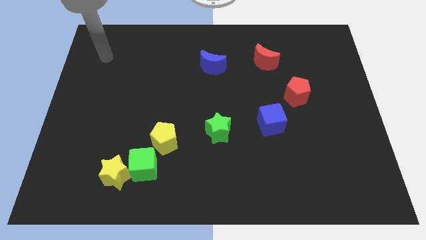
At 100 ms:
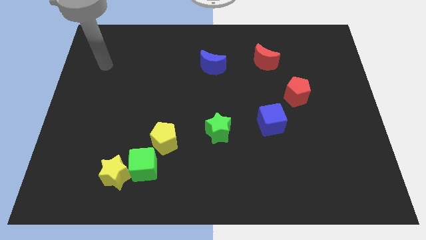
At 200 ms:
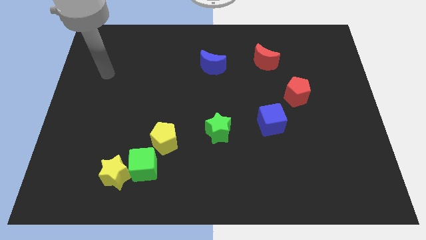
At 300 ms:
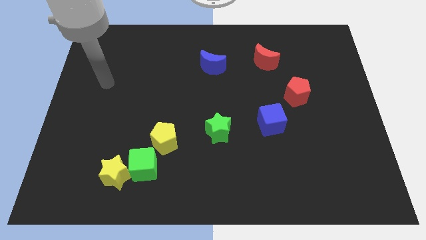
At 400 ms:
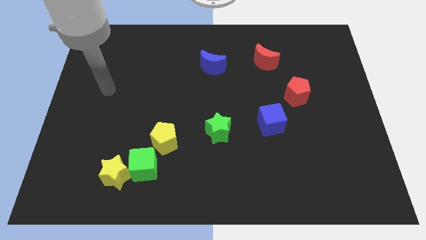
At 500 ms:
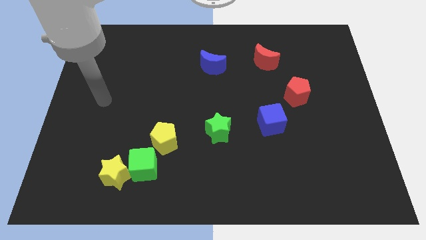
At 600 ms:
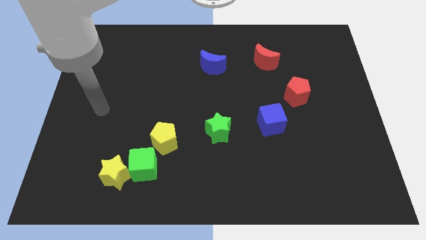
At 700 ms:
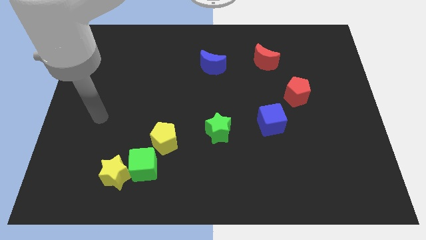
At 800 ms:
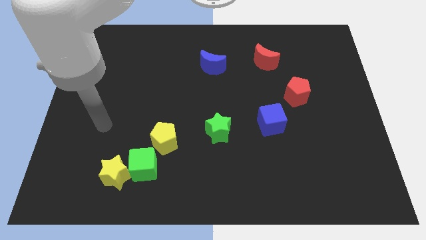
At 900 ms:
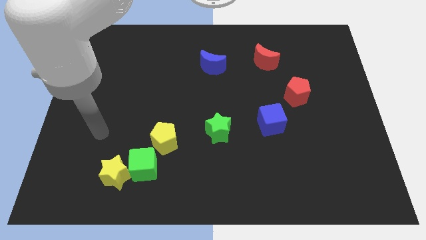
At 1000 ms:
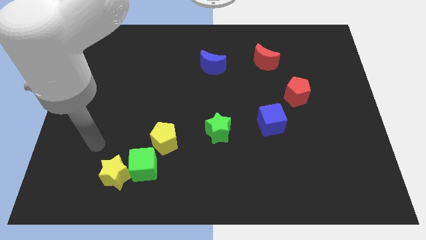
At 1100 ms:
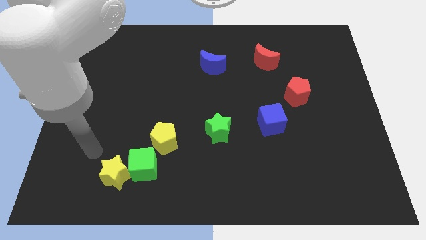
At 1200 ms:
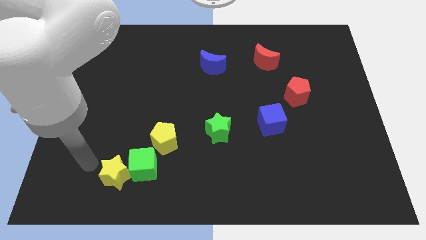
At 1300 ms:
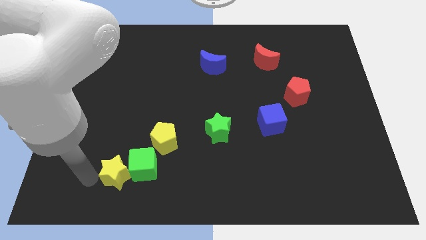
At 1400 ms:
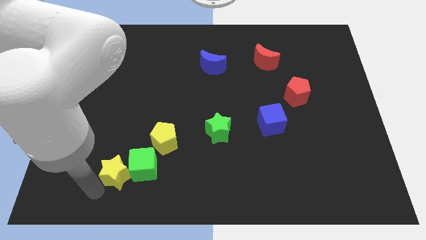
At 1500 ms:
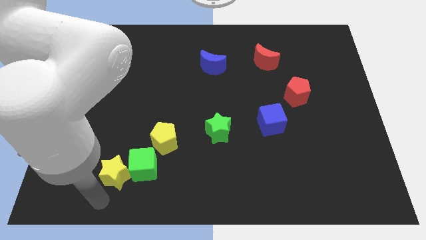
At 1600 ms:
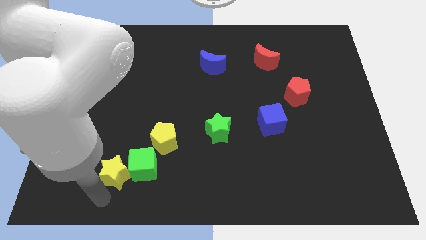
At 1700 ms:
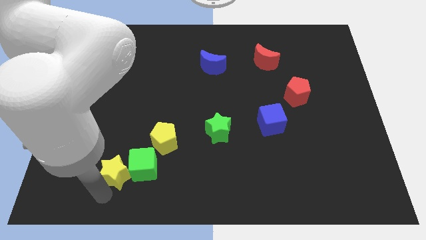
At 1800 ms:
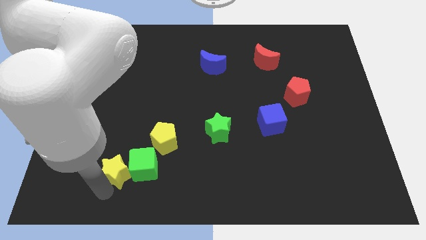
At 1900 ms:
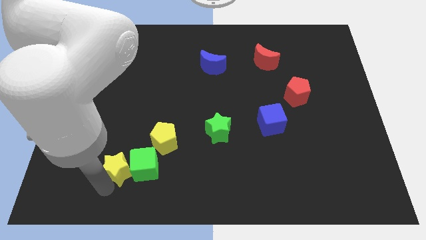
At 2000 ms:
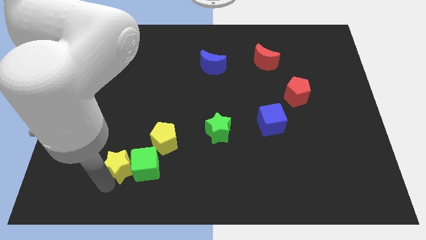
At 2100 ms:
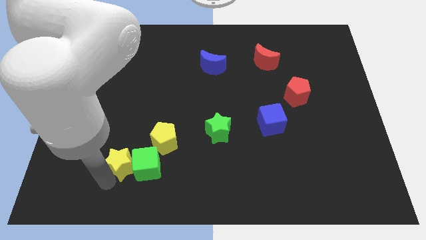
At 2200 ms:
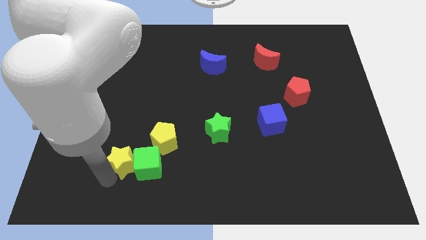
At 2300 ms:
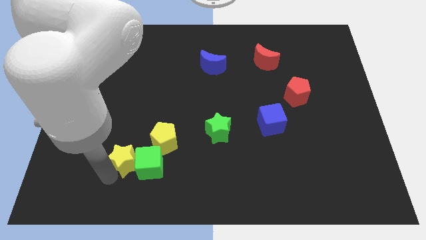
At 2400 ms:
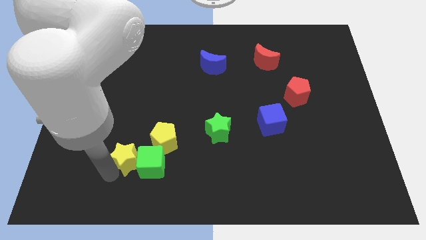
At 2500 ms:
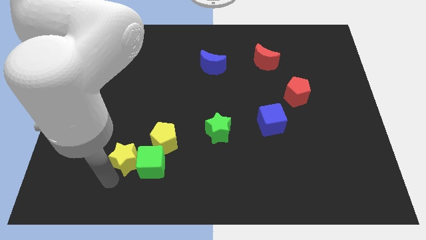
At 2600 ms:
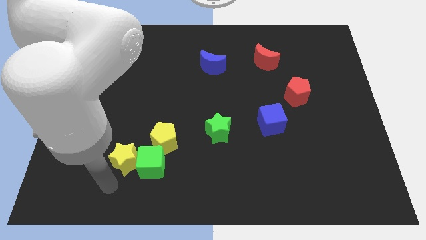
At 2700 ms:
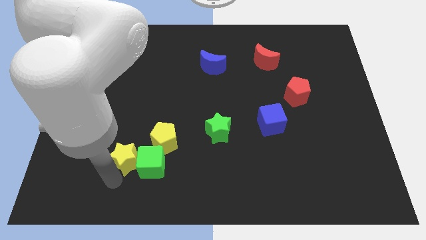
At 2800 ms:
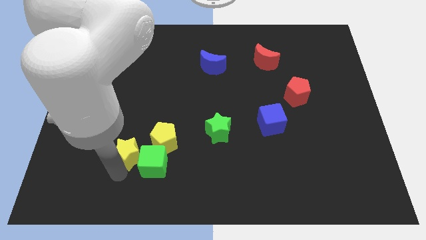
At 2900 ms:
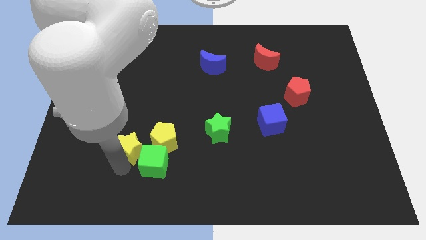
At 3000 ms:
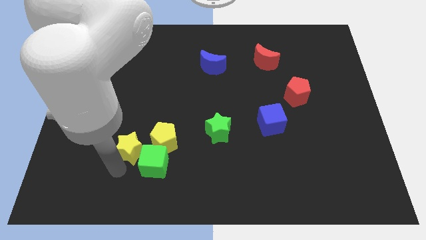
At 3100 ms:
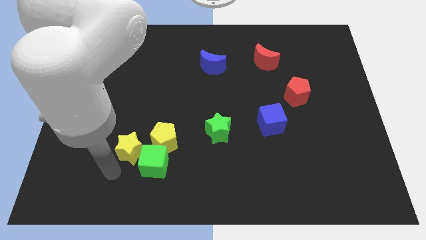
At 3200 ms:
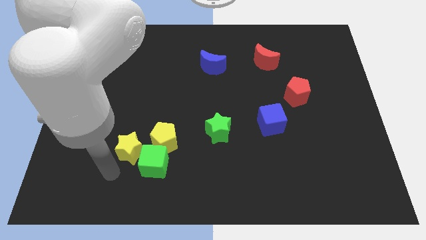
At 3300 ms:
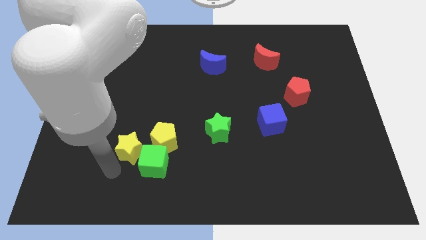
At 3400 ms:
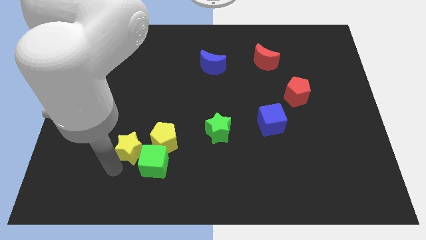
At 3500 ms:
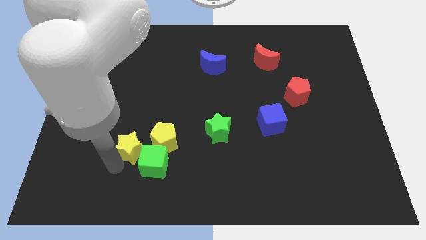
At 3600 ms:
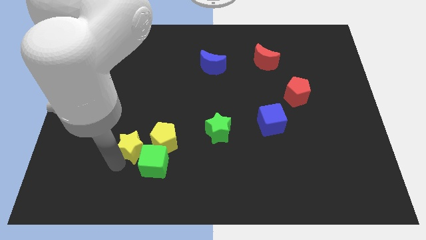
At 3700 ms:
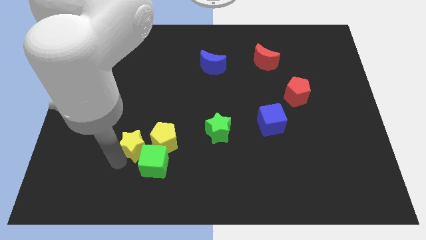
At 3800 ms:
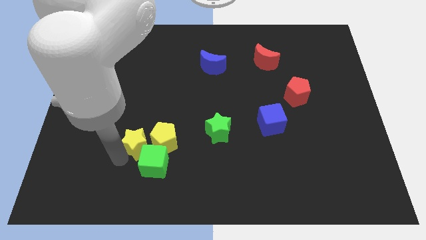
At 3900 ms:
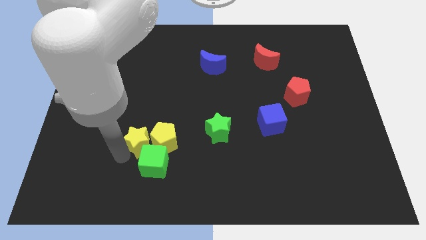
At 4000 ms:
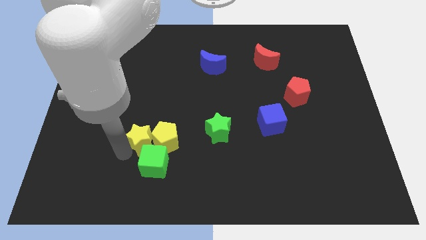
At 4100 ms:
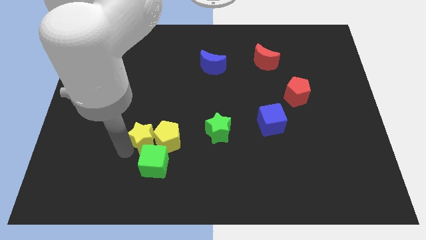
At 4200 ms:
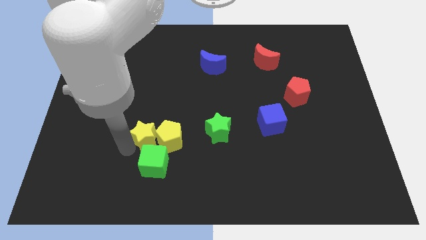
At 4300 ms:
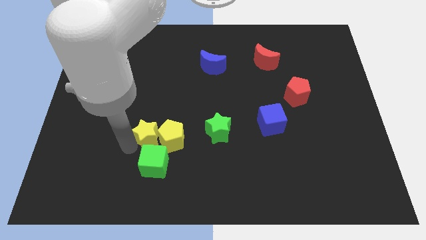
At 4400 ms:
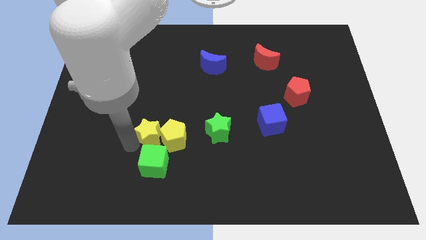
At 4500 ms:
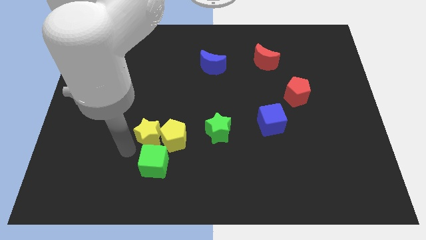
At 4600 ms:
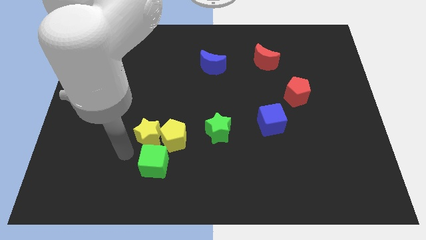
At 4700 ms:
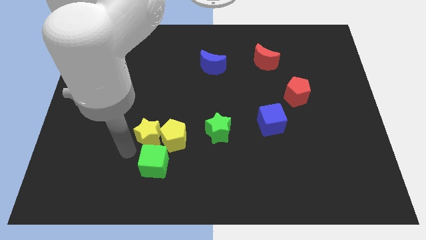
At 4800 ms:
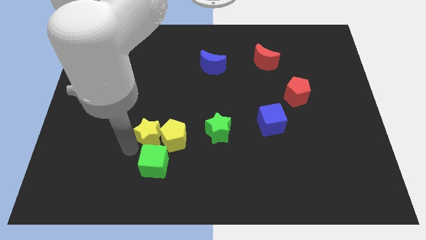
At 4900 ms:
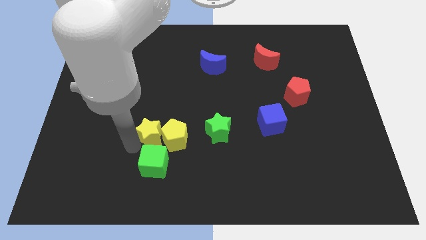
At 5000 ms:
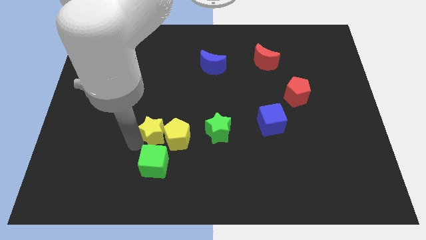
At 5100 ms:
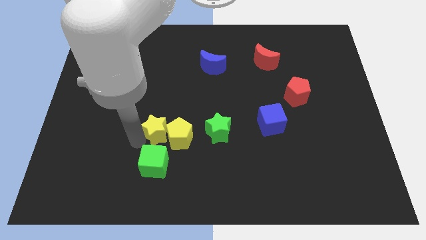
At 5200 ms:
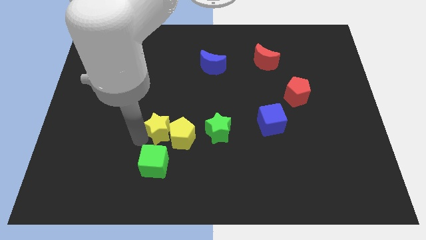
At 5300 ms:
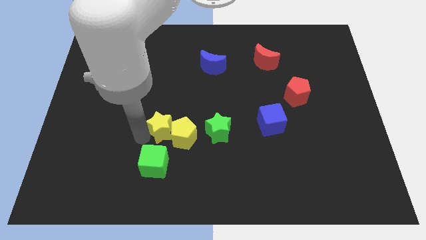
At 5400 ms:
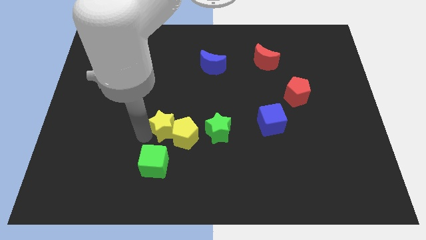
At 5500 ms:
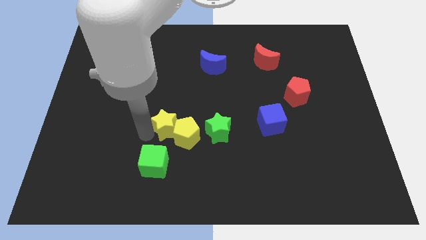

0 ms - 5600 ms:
slide the yellow star diagonally up and to the right of the green cube

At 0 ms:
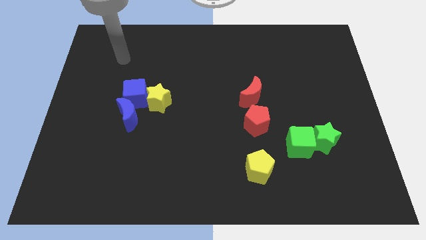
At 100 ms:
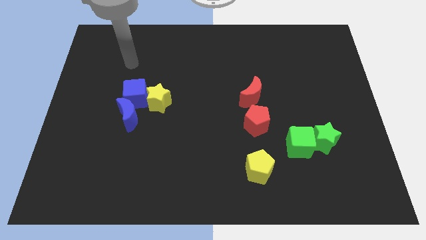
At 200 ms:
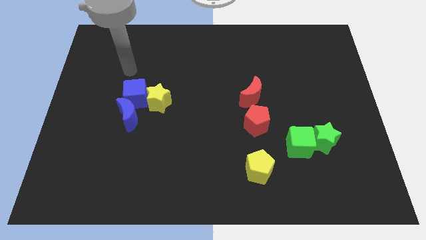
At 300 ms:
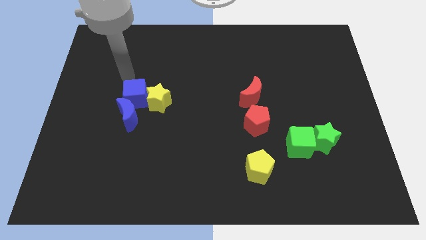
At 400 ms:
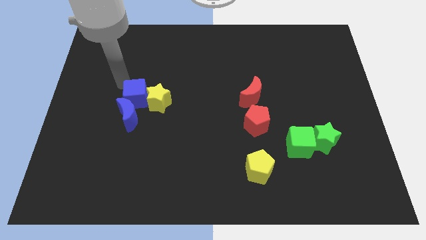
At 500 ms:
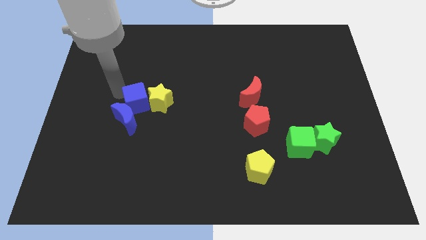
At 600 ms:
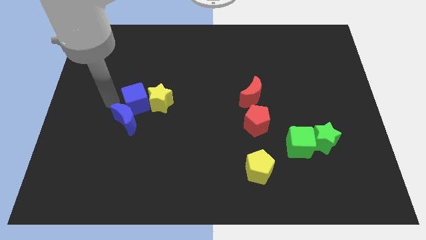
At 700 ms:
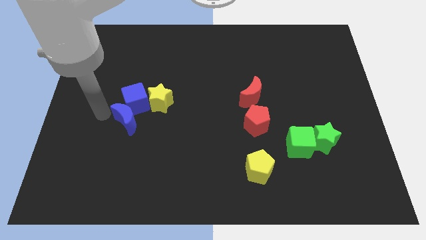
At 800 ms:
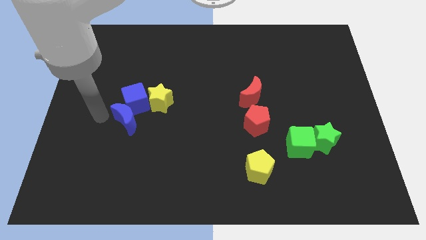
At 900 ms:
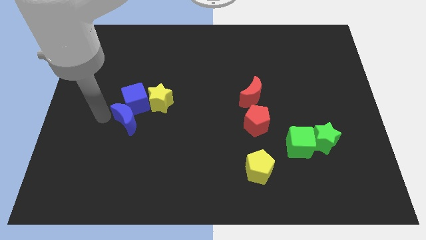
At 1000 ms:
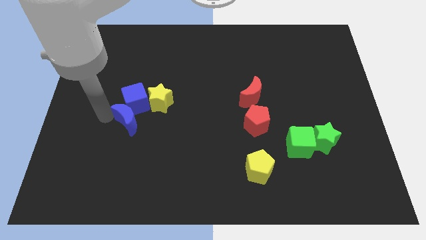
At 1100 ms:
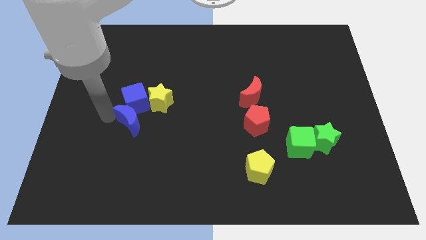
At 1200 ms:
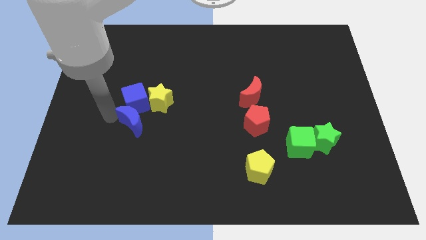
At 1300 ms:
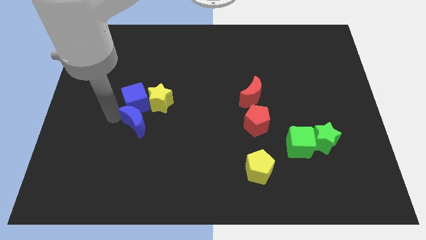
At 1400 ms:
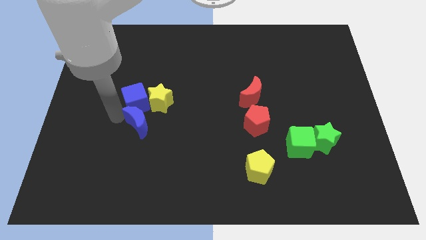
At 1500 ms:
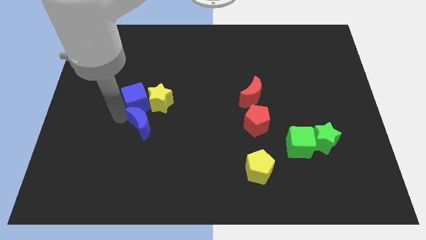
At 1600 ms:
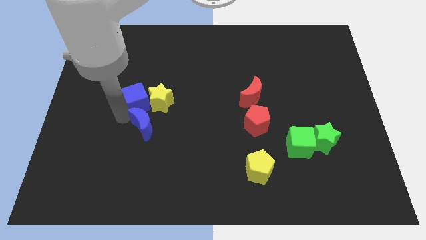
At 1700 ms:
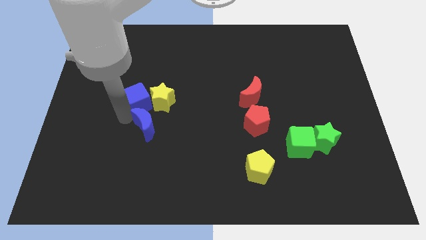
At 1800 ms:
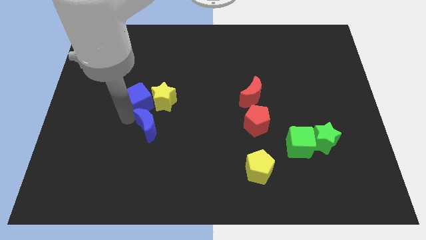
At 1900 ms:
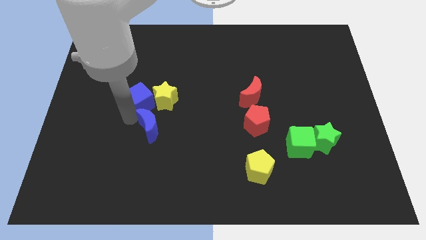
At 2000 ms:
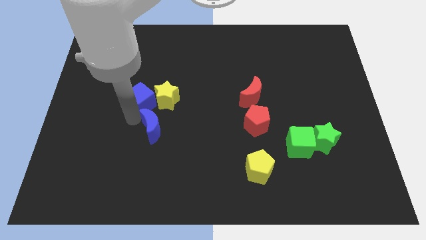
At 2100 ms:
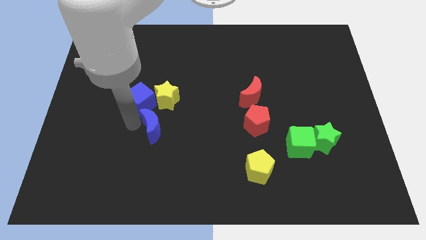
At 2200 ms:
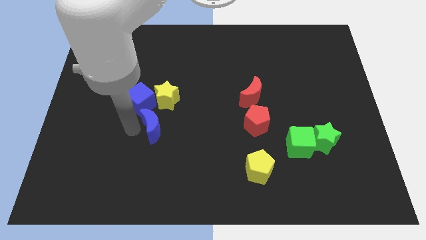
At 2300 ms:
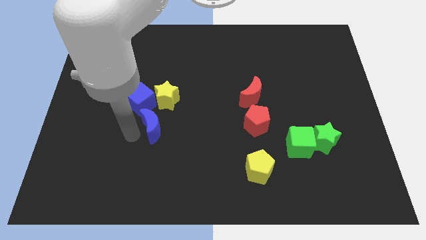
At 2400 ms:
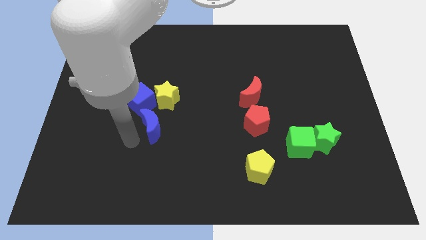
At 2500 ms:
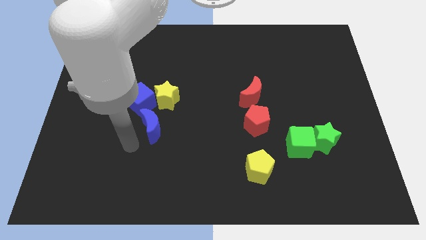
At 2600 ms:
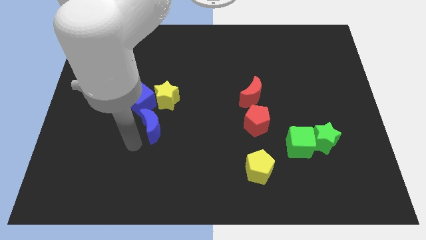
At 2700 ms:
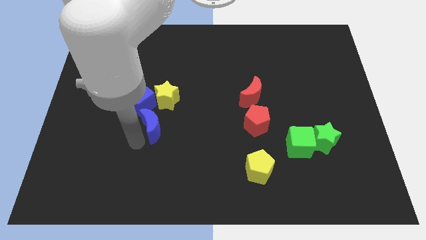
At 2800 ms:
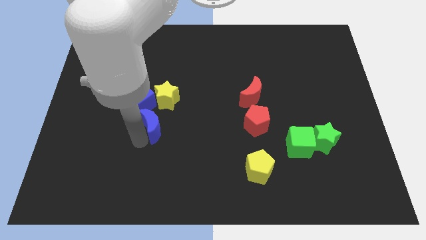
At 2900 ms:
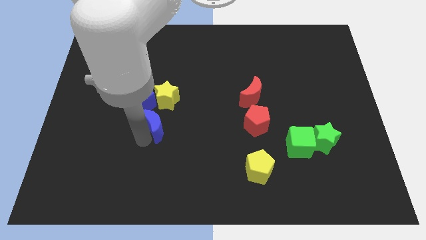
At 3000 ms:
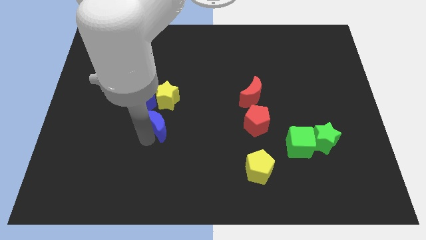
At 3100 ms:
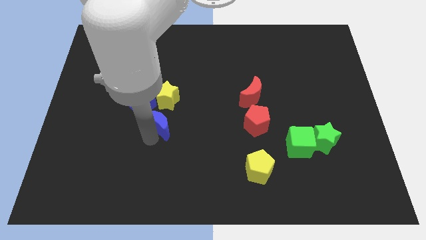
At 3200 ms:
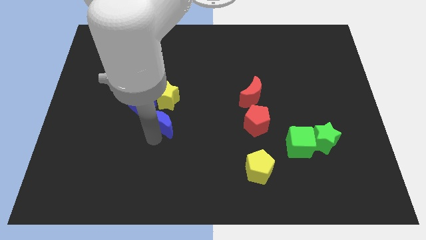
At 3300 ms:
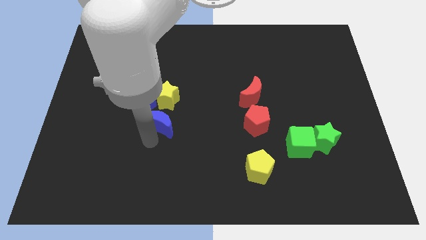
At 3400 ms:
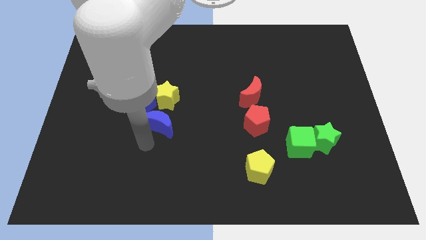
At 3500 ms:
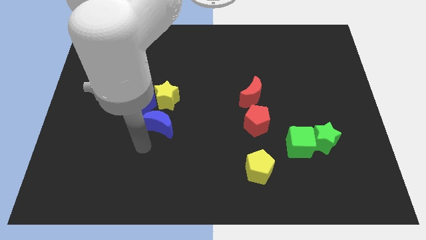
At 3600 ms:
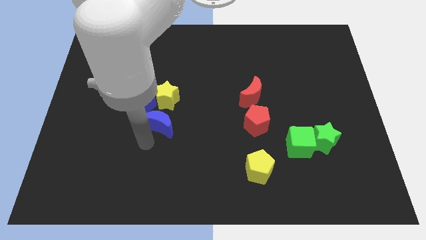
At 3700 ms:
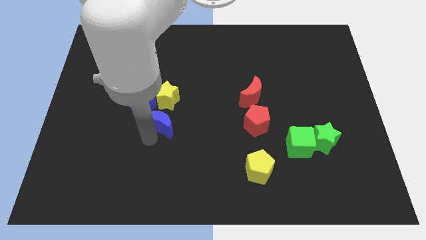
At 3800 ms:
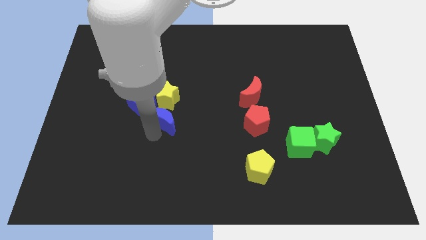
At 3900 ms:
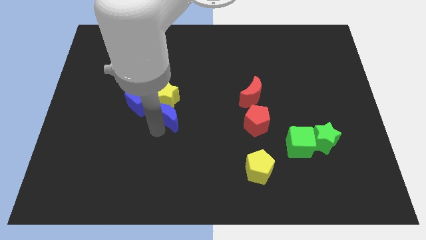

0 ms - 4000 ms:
push the blue moon to the right side of the blue cube
